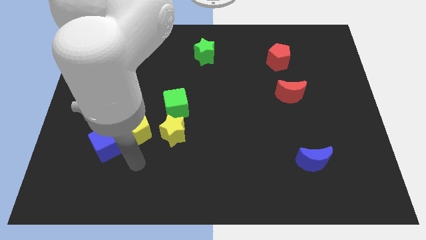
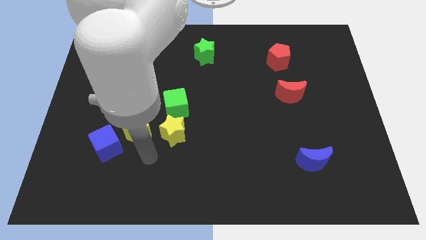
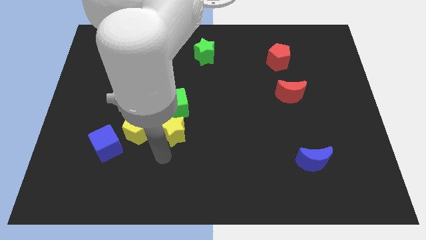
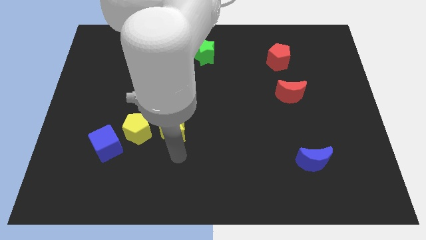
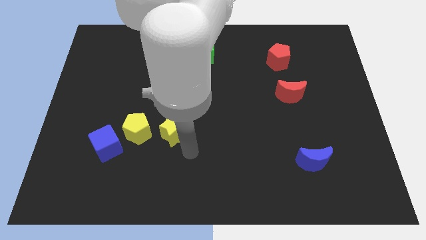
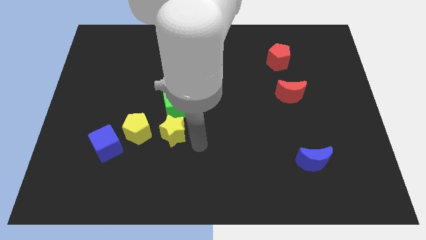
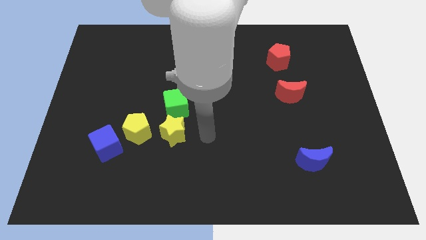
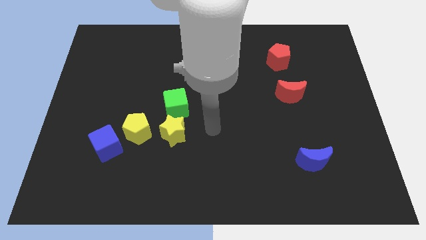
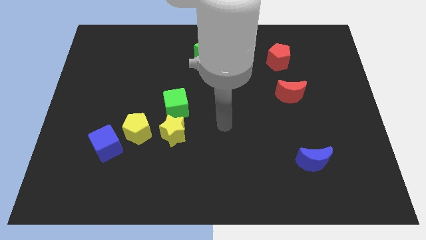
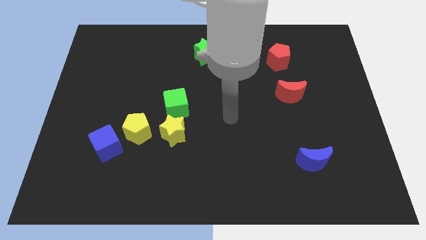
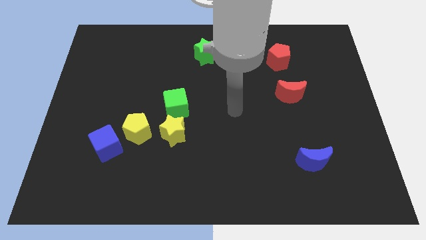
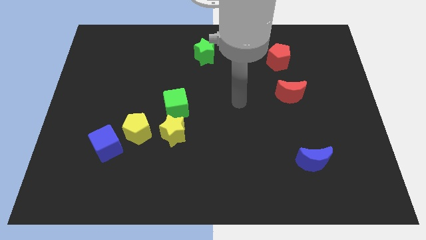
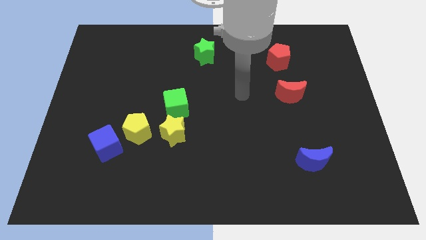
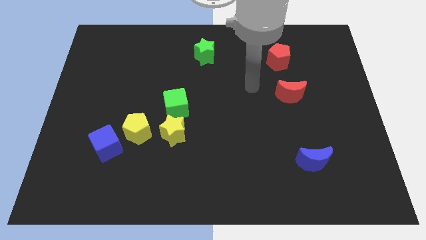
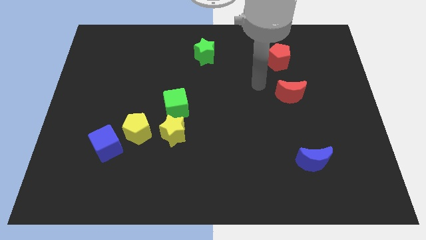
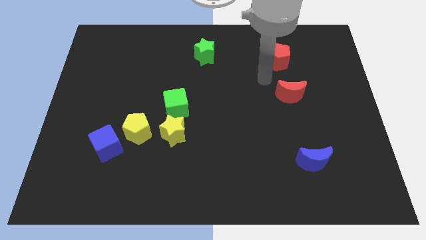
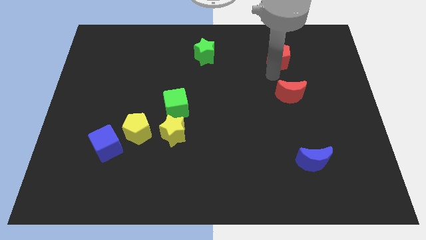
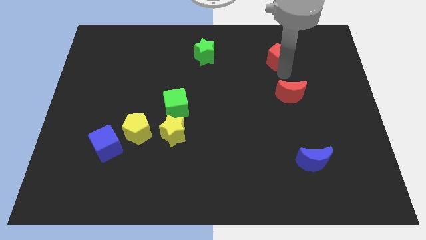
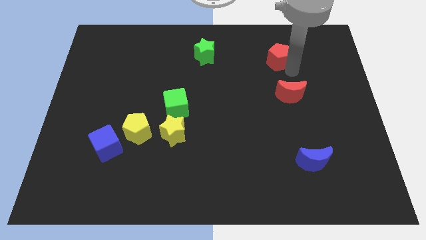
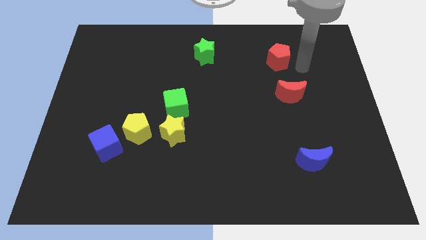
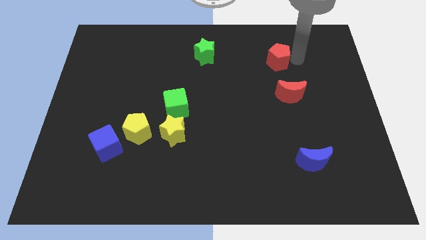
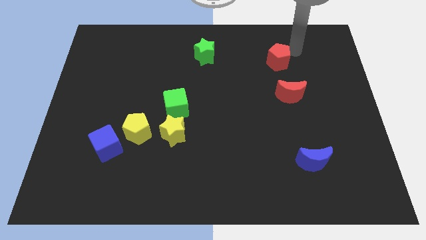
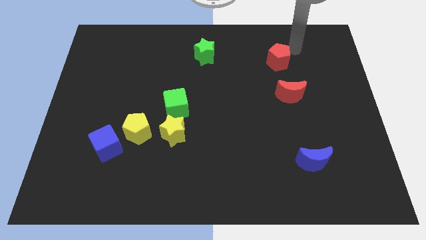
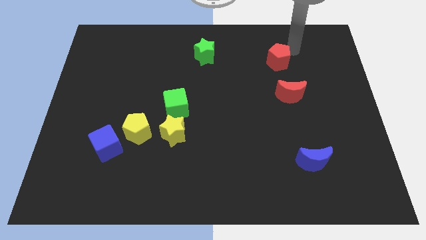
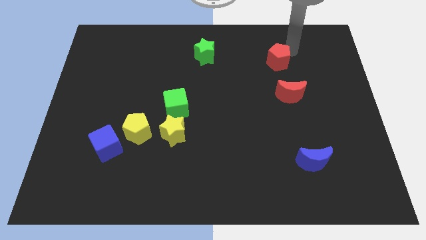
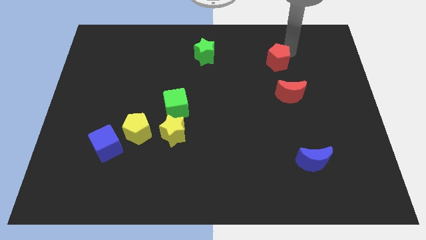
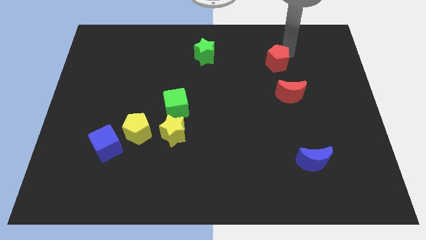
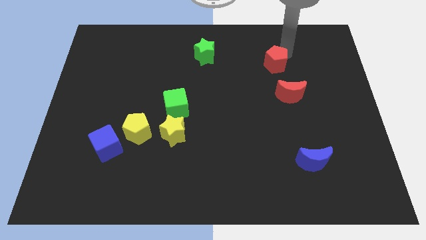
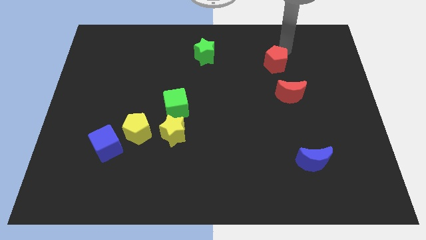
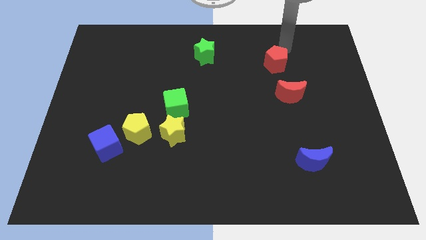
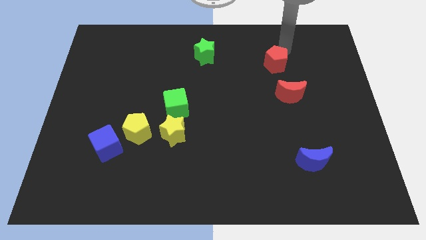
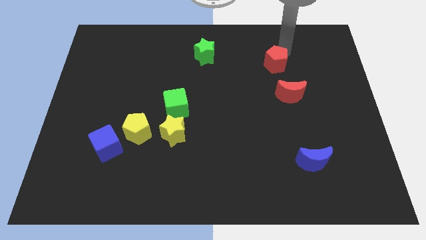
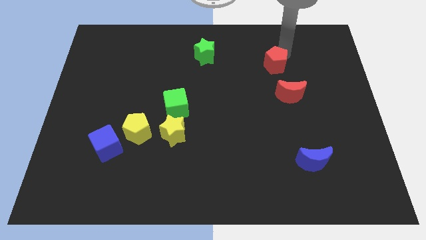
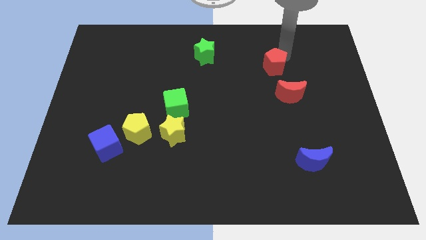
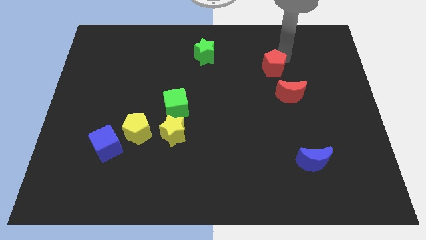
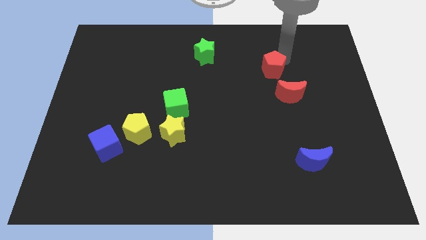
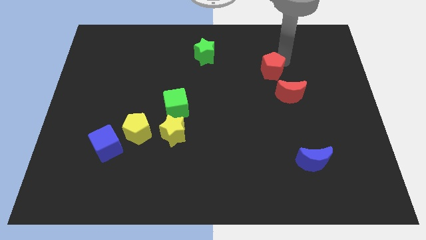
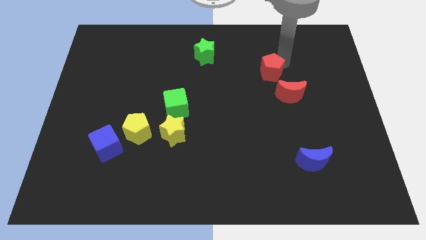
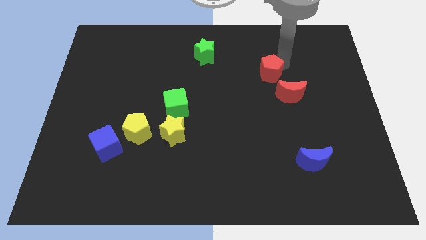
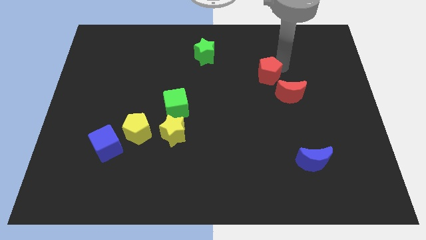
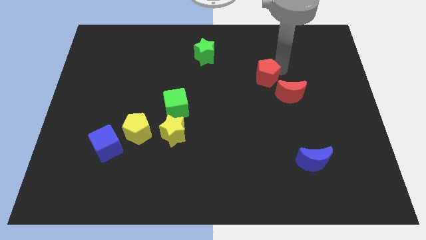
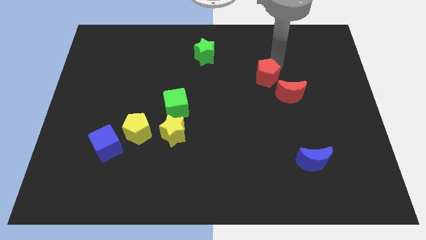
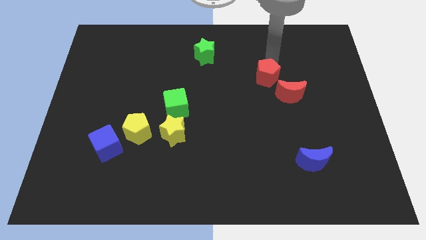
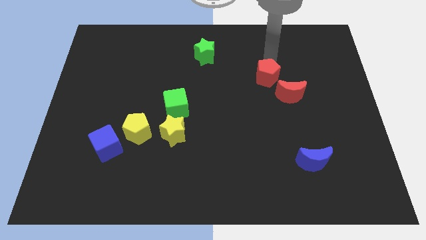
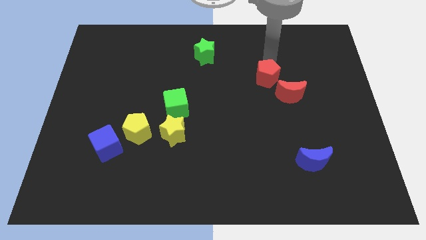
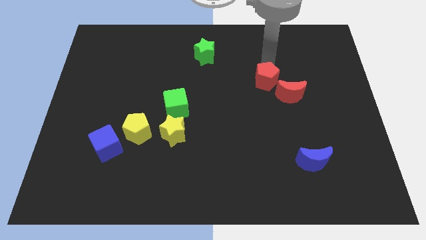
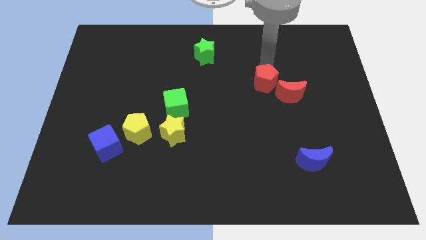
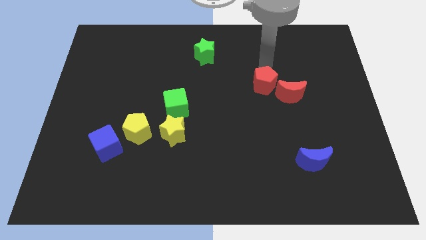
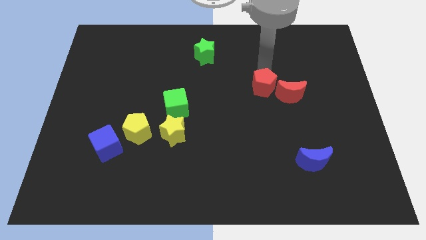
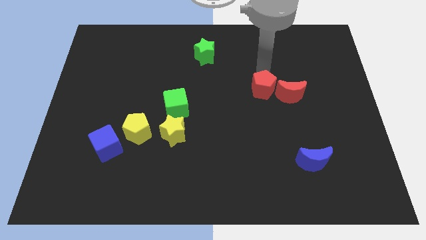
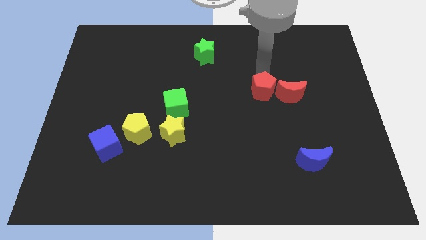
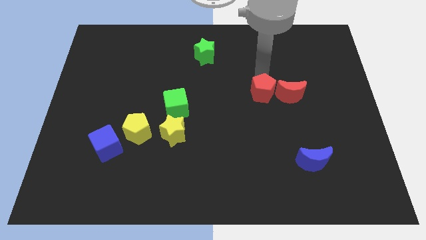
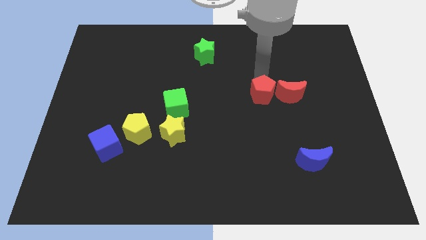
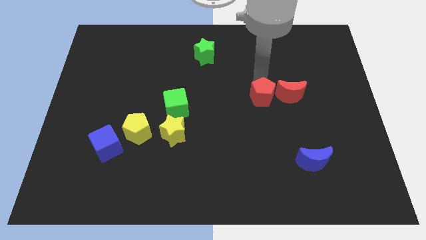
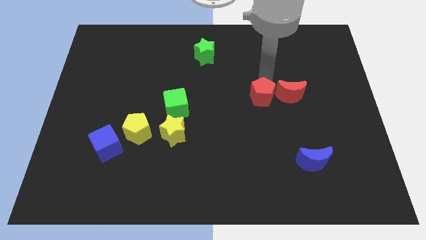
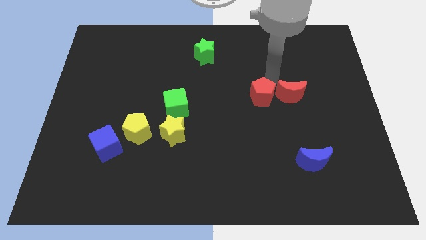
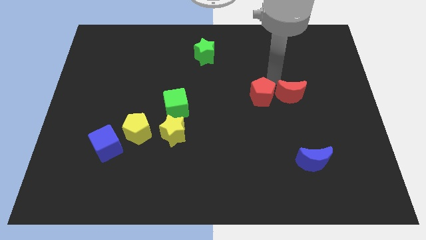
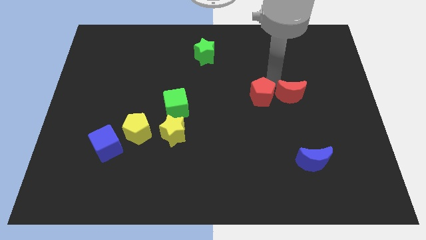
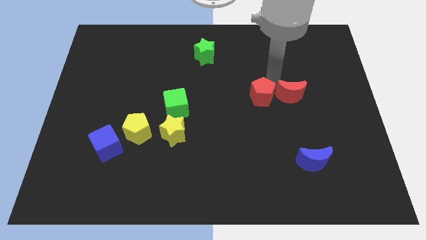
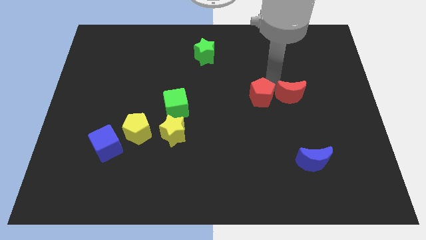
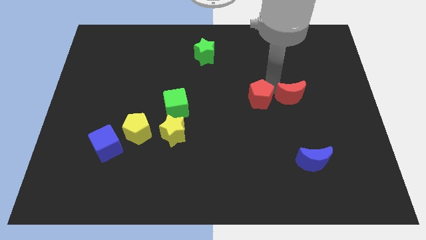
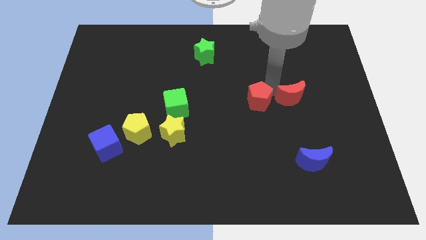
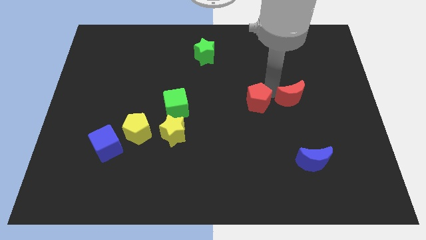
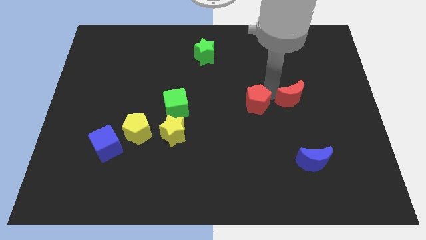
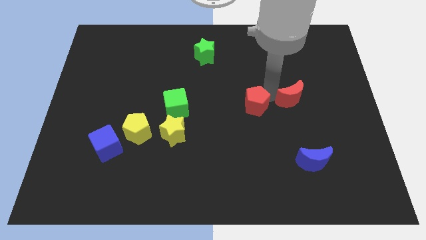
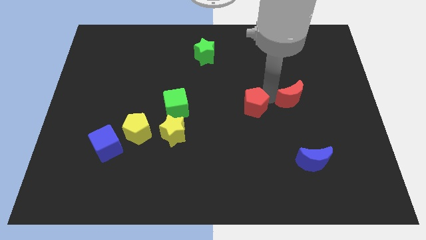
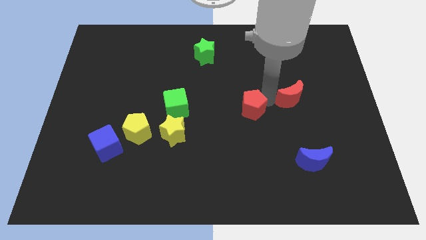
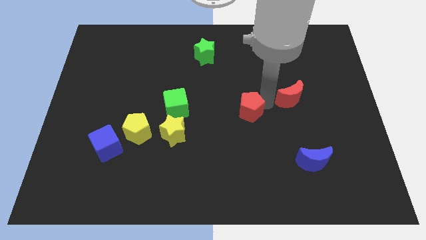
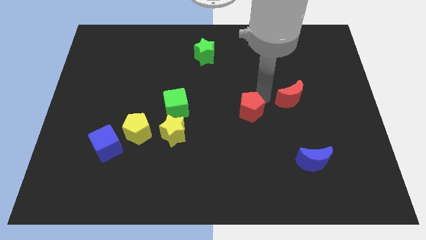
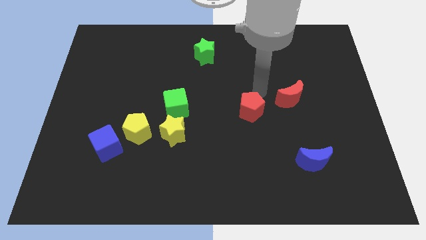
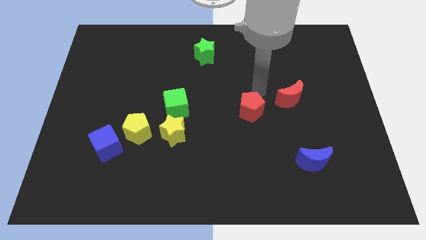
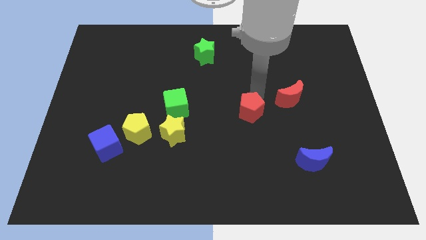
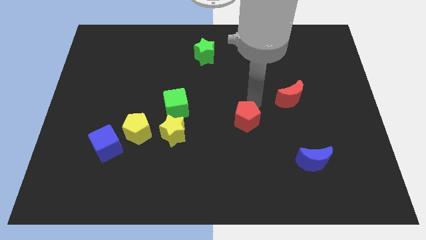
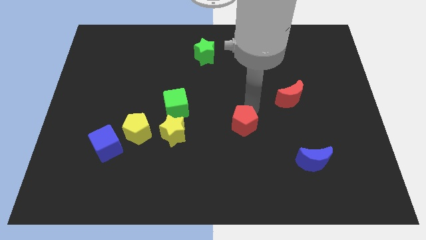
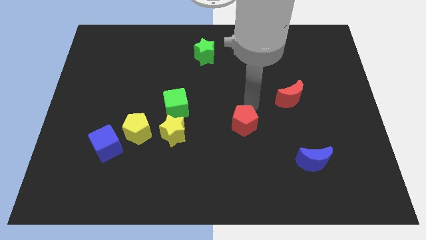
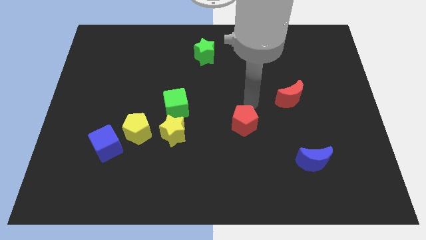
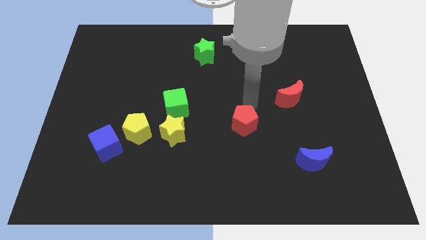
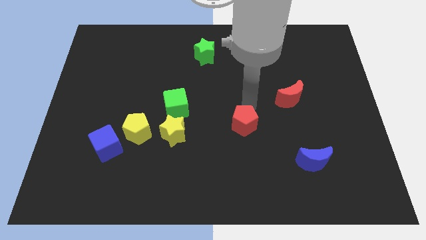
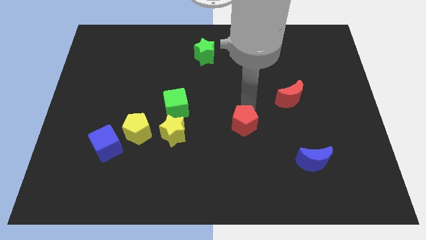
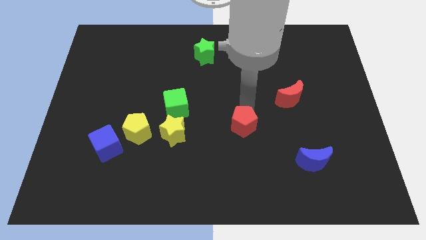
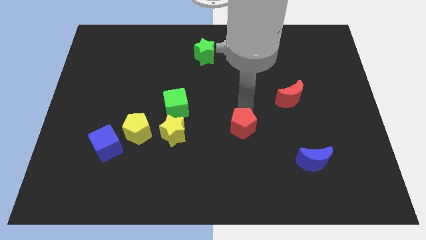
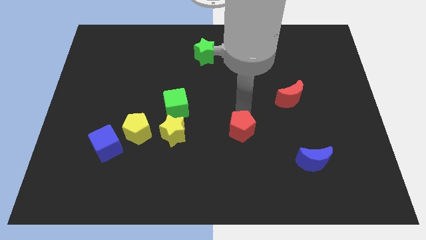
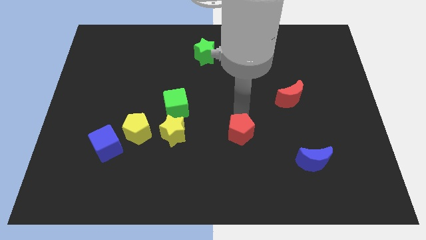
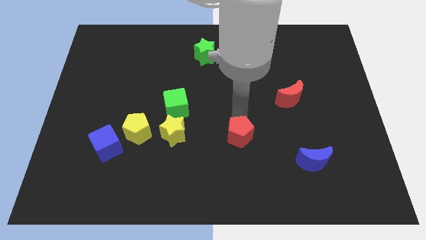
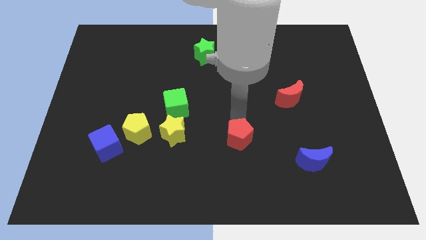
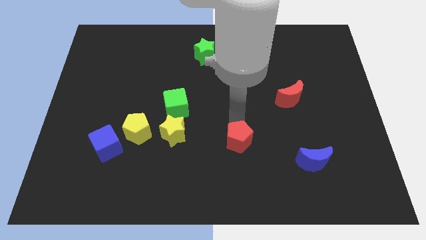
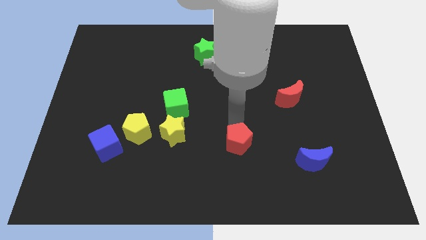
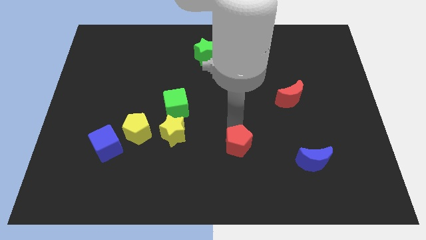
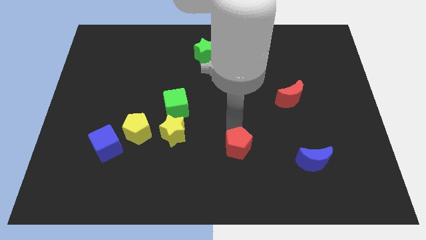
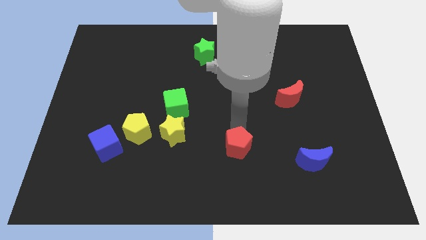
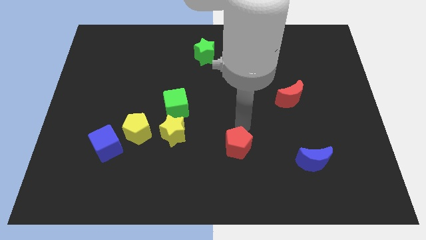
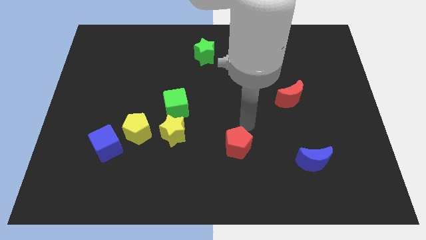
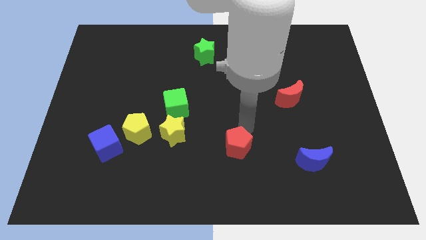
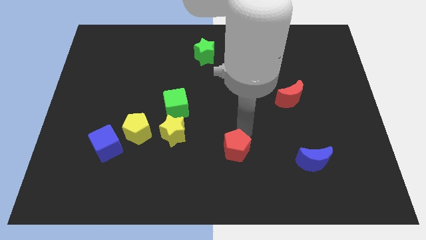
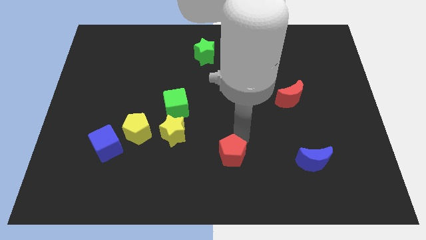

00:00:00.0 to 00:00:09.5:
move the red pentagon to the bottom
